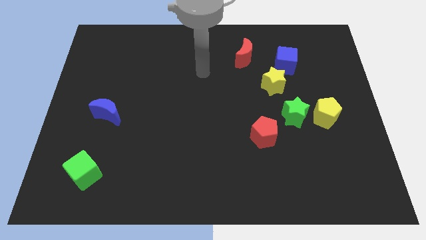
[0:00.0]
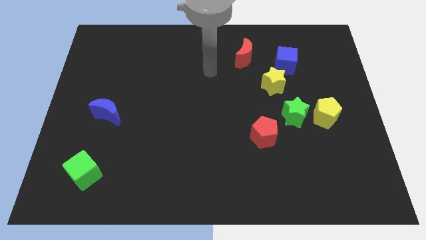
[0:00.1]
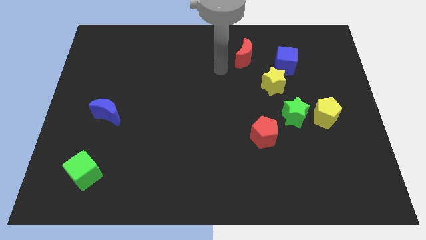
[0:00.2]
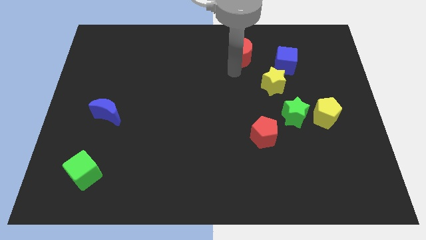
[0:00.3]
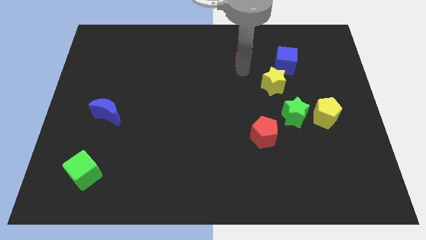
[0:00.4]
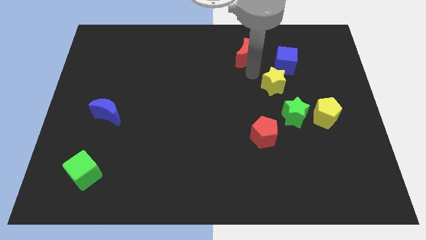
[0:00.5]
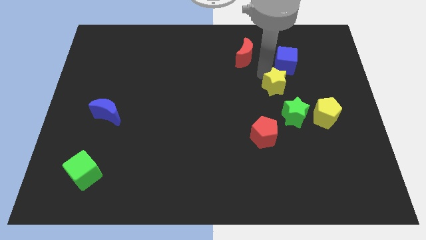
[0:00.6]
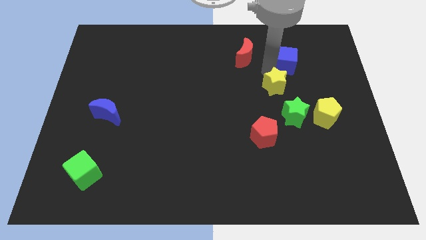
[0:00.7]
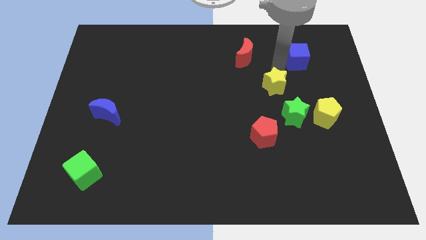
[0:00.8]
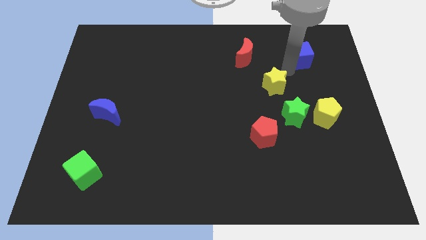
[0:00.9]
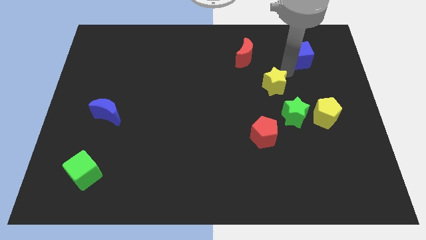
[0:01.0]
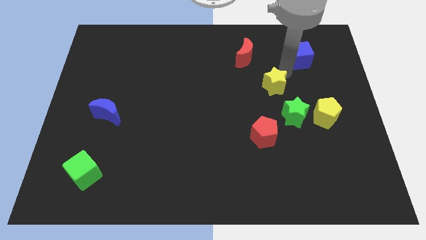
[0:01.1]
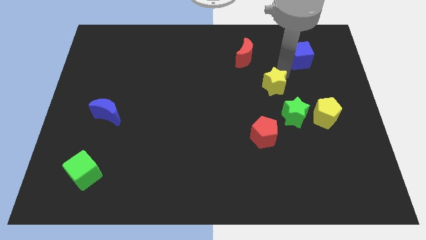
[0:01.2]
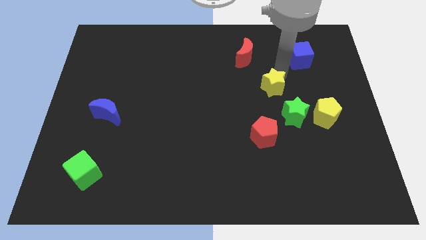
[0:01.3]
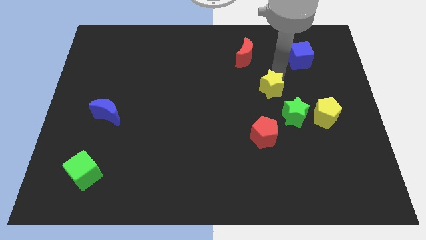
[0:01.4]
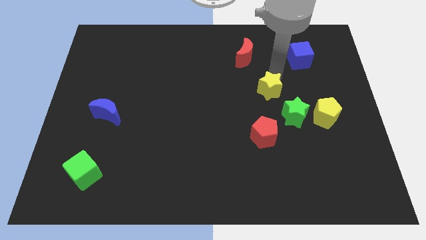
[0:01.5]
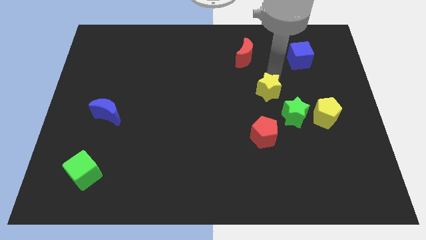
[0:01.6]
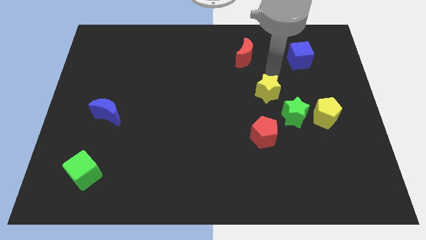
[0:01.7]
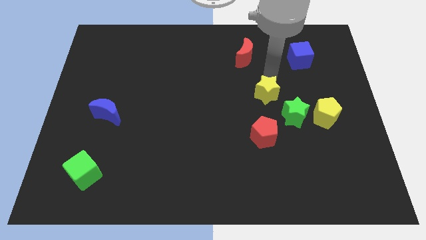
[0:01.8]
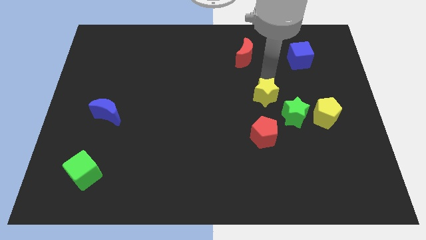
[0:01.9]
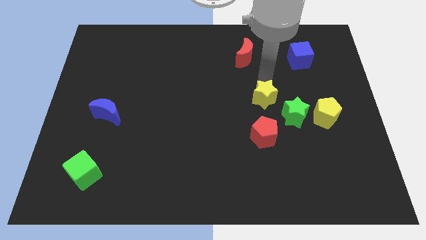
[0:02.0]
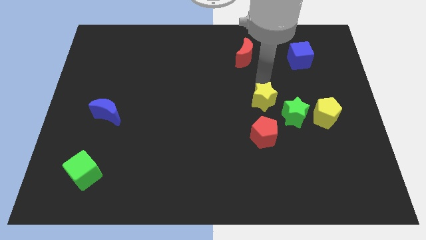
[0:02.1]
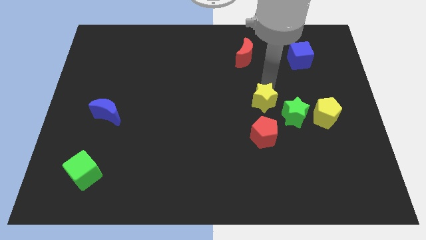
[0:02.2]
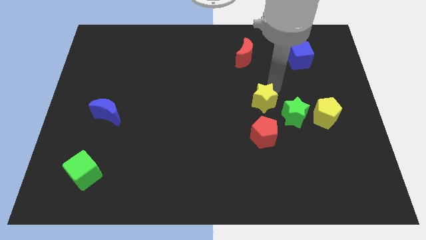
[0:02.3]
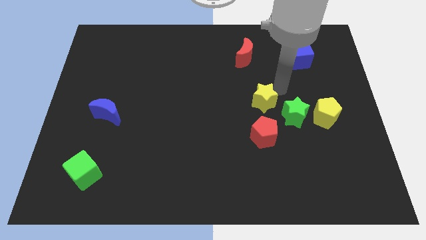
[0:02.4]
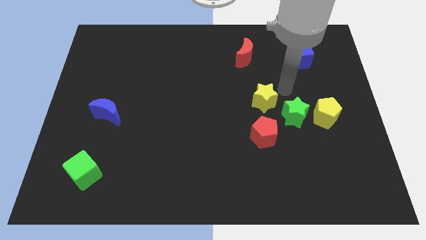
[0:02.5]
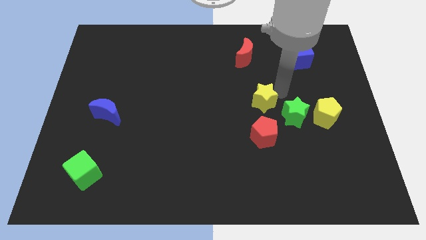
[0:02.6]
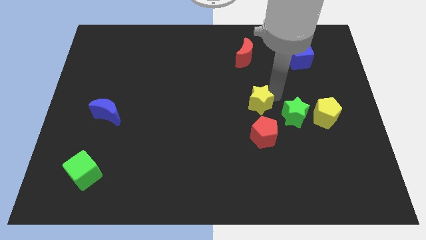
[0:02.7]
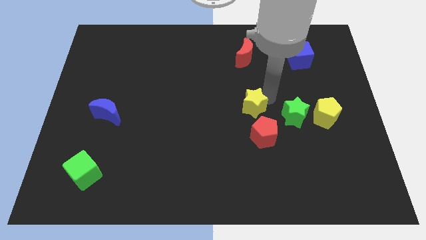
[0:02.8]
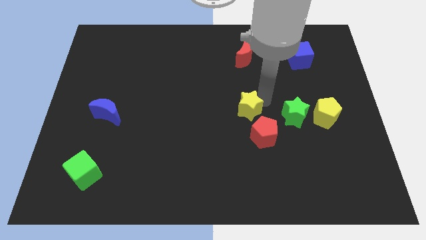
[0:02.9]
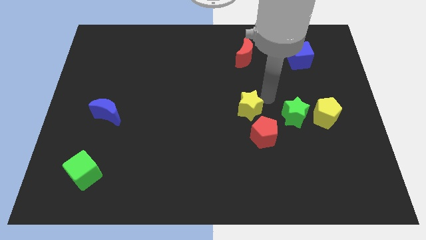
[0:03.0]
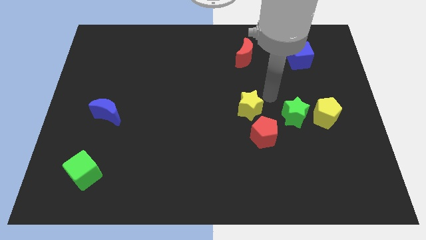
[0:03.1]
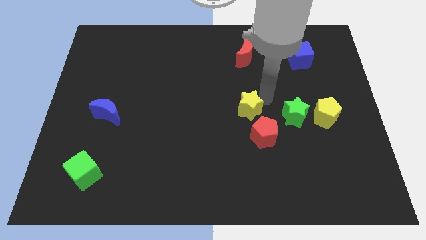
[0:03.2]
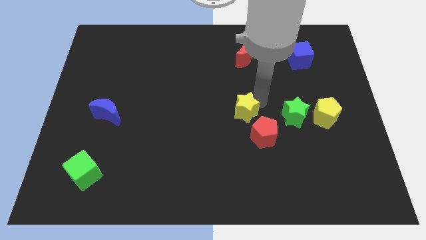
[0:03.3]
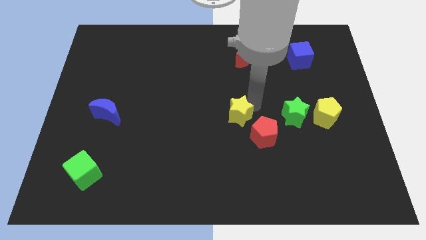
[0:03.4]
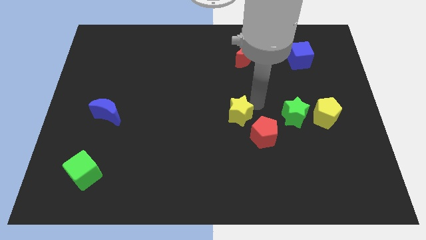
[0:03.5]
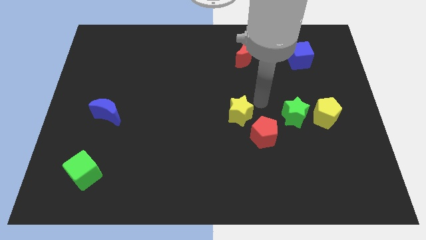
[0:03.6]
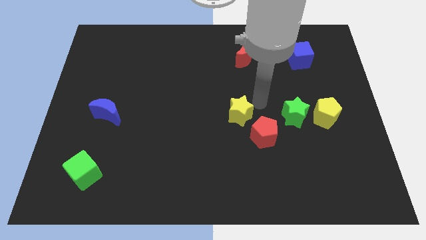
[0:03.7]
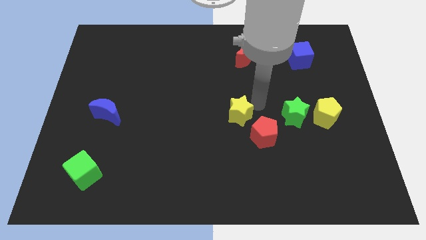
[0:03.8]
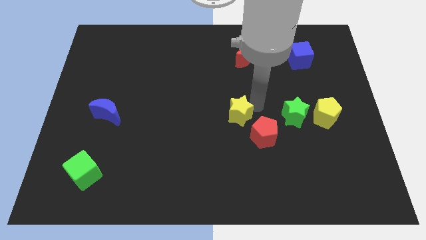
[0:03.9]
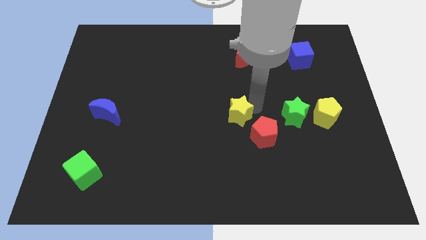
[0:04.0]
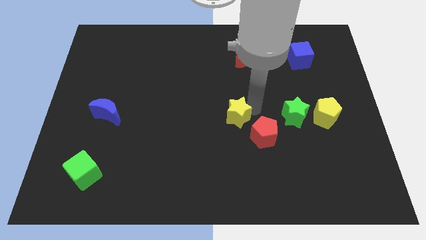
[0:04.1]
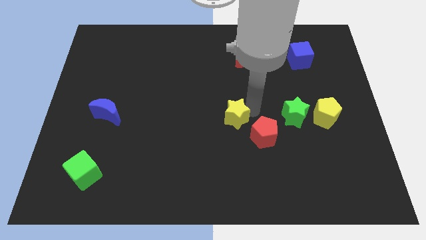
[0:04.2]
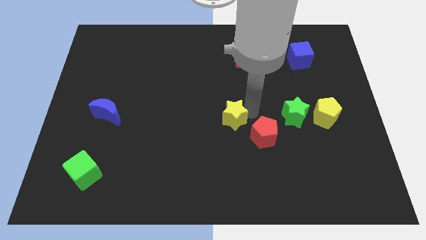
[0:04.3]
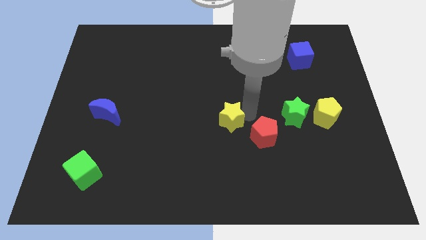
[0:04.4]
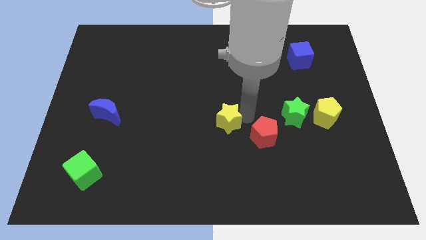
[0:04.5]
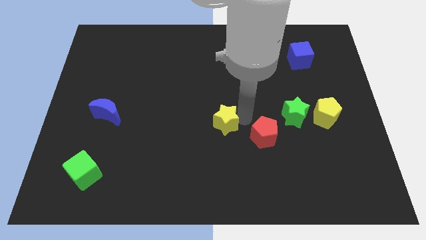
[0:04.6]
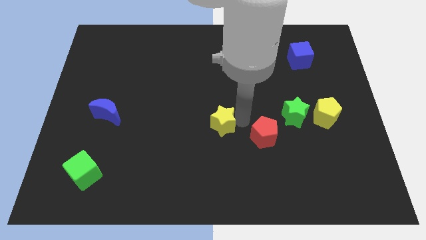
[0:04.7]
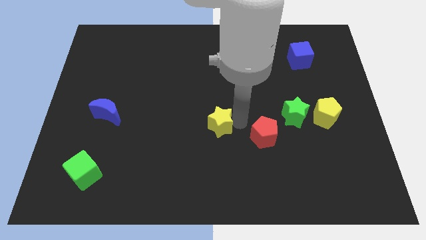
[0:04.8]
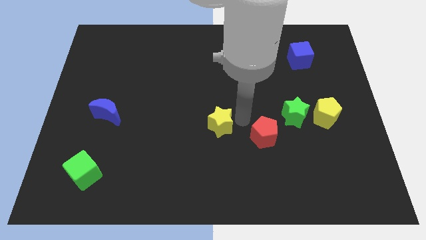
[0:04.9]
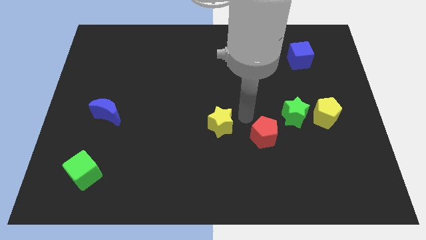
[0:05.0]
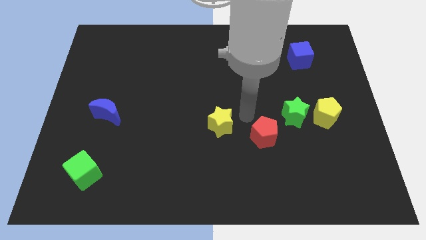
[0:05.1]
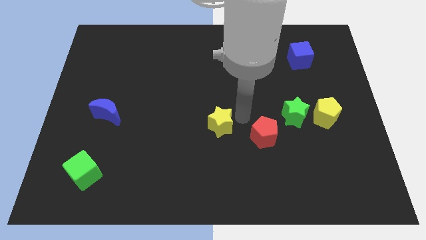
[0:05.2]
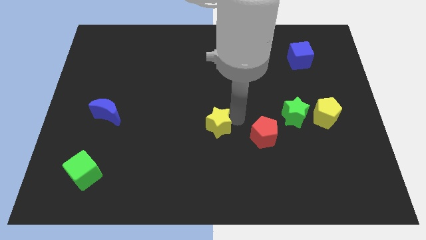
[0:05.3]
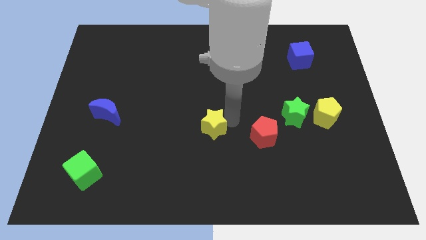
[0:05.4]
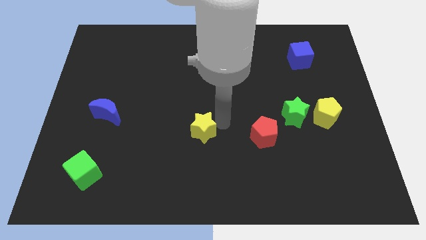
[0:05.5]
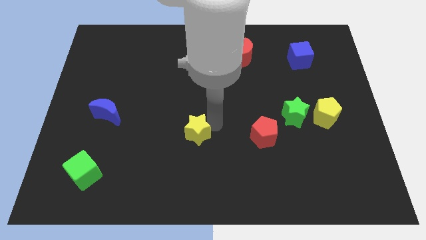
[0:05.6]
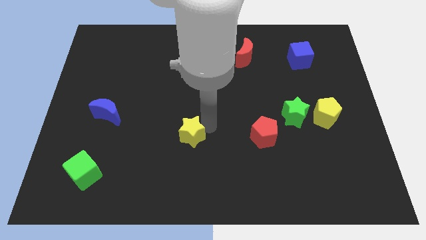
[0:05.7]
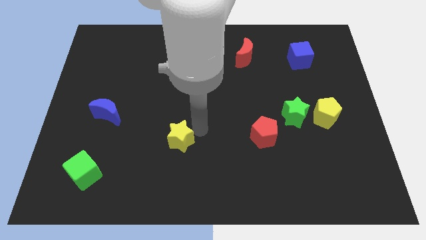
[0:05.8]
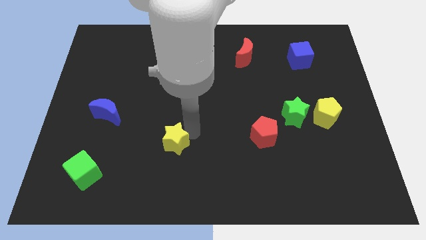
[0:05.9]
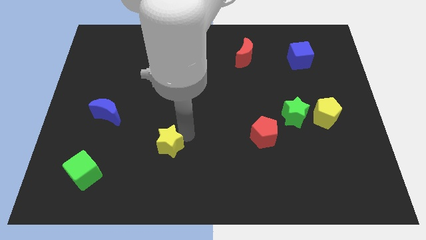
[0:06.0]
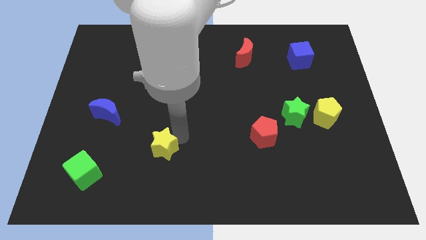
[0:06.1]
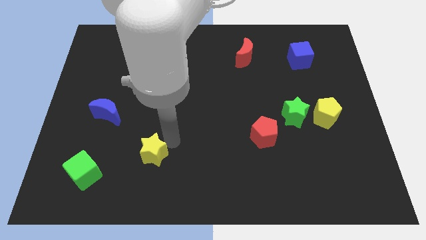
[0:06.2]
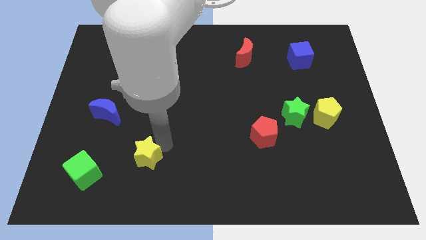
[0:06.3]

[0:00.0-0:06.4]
move the yellow star to the right side of the green cube
